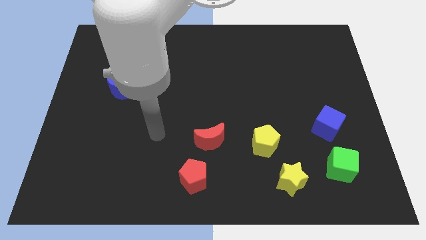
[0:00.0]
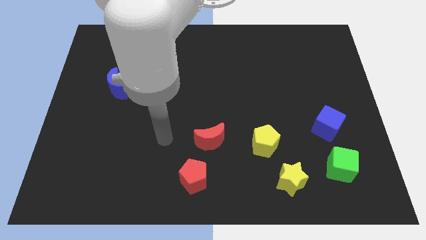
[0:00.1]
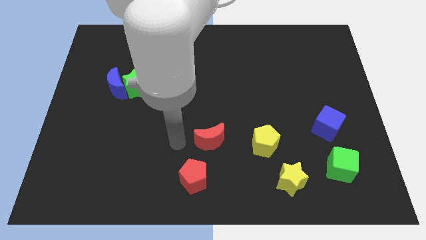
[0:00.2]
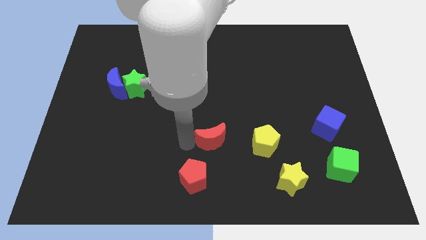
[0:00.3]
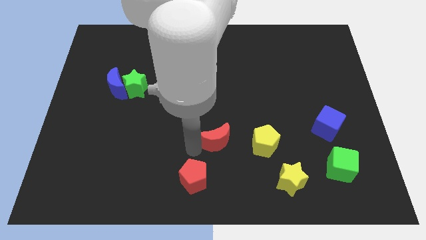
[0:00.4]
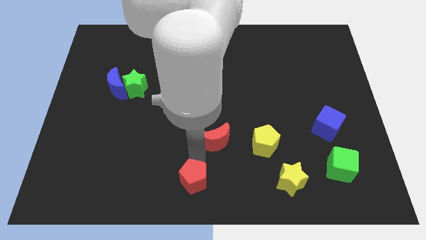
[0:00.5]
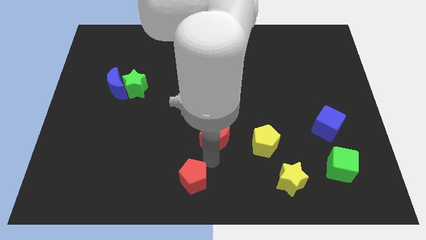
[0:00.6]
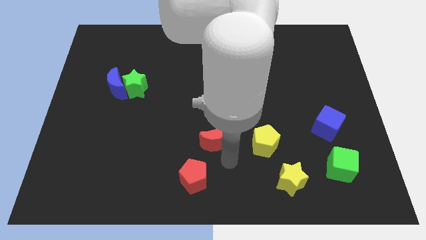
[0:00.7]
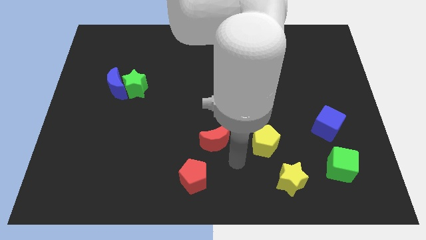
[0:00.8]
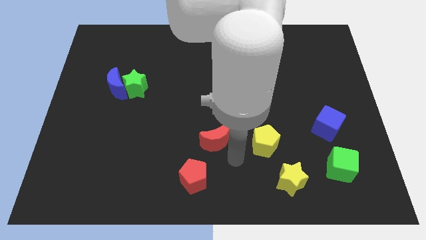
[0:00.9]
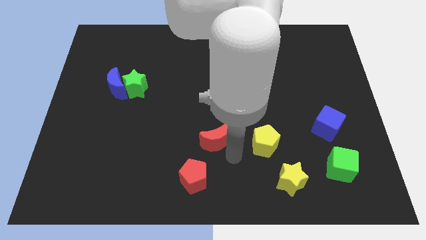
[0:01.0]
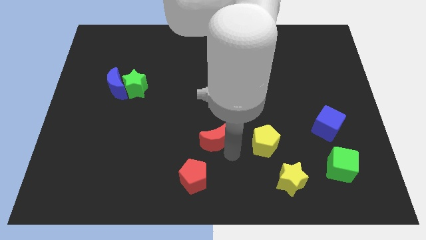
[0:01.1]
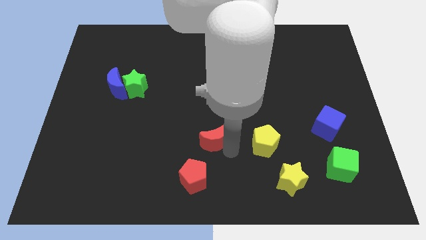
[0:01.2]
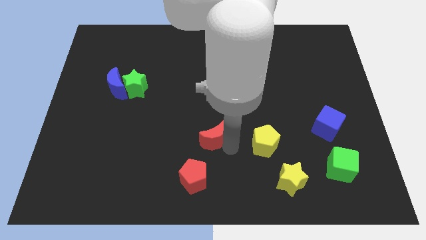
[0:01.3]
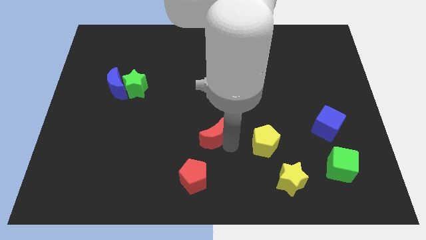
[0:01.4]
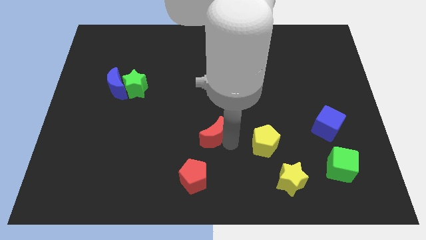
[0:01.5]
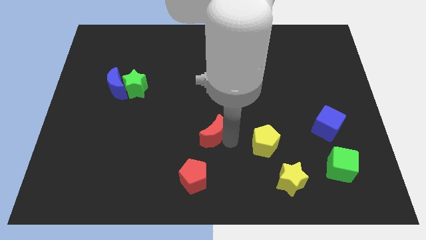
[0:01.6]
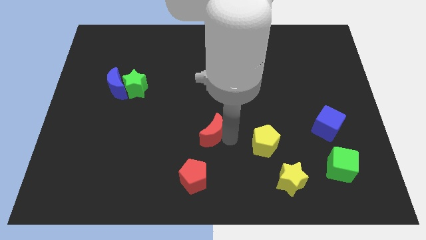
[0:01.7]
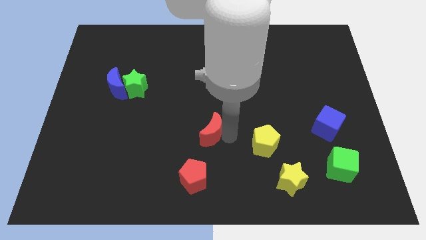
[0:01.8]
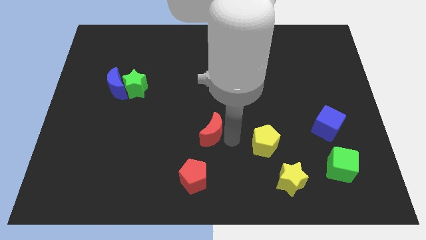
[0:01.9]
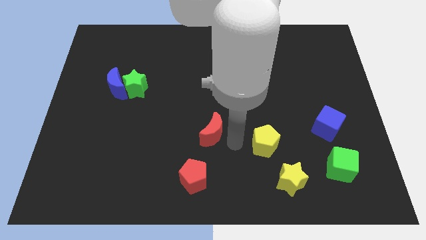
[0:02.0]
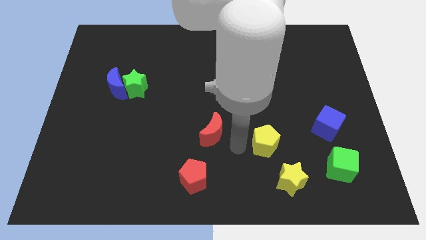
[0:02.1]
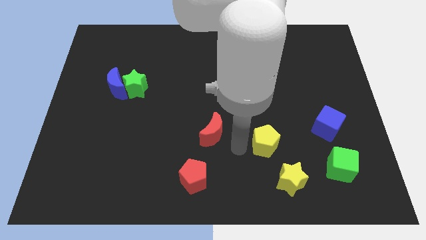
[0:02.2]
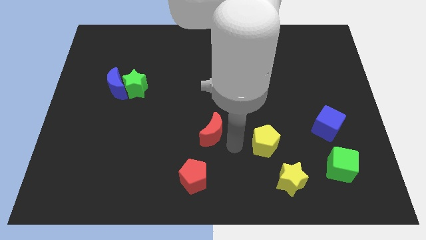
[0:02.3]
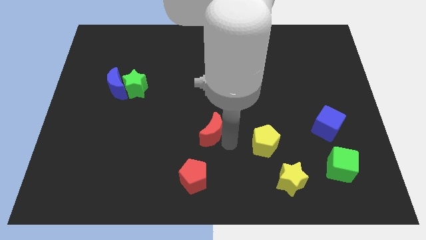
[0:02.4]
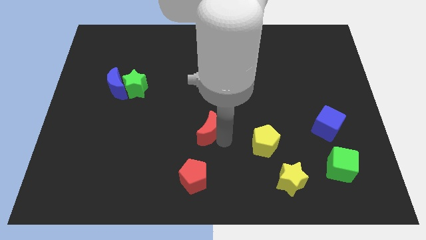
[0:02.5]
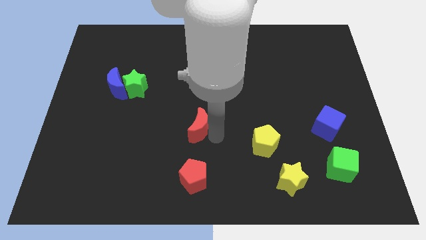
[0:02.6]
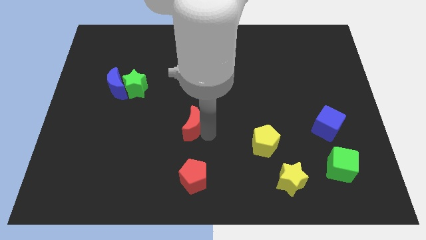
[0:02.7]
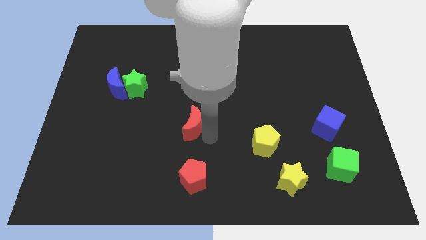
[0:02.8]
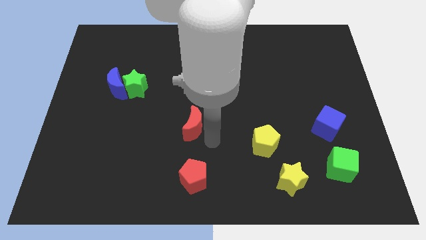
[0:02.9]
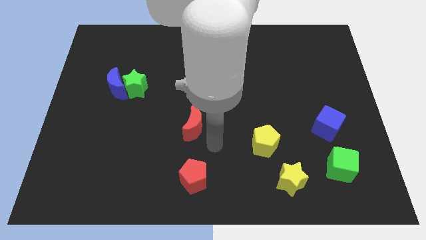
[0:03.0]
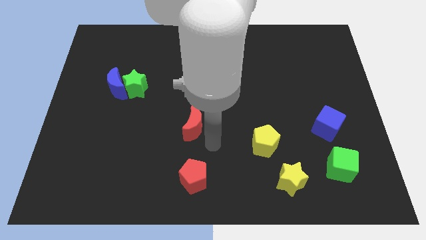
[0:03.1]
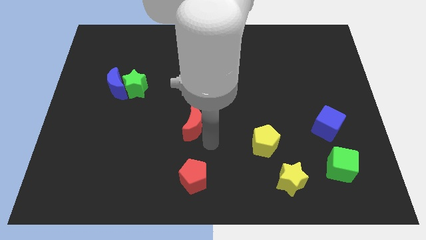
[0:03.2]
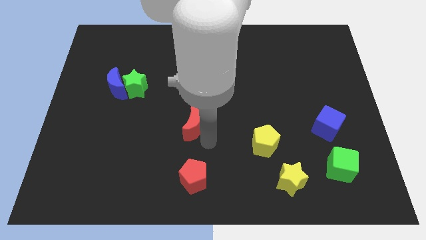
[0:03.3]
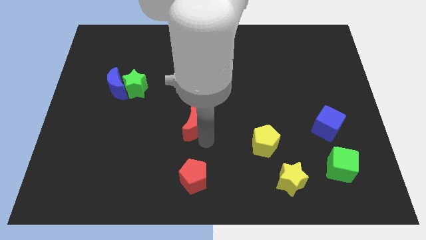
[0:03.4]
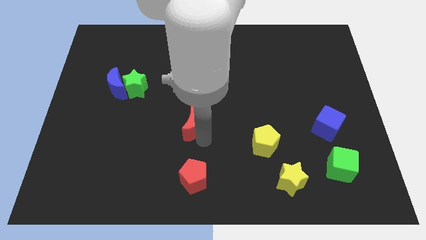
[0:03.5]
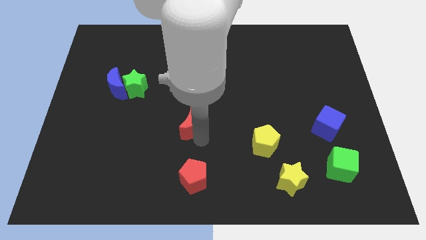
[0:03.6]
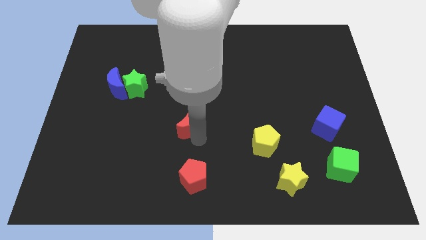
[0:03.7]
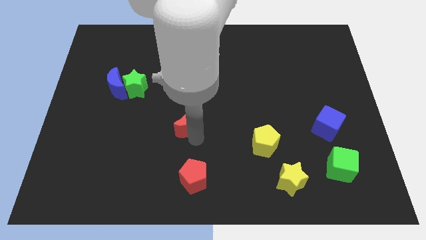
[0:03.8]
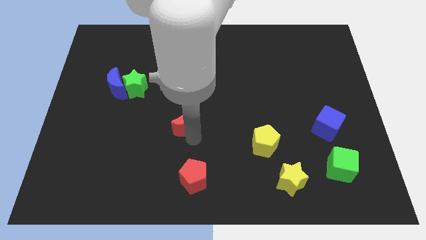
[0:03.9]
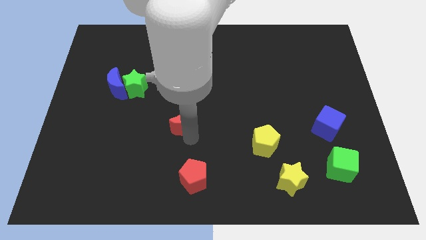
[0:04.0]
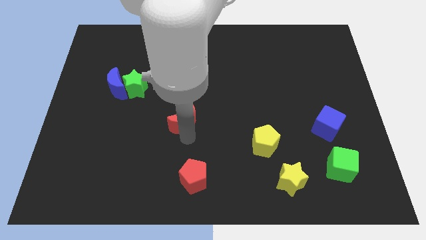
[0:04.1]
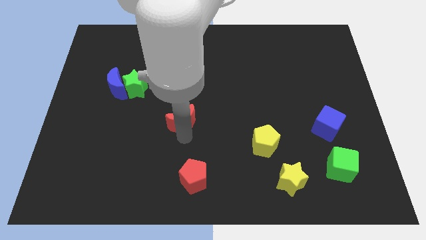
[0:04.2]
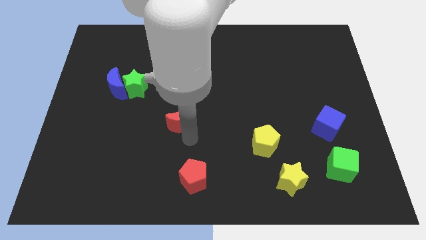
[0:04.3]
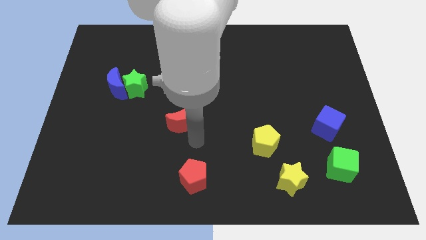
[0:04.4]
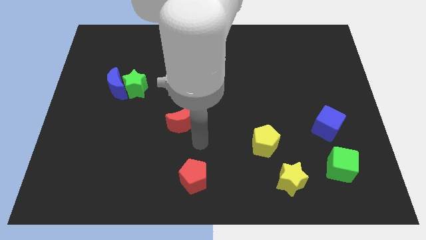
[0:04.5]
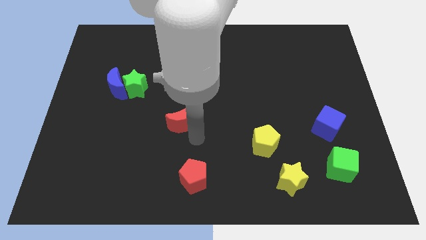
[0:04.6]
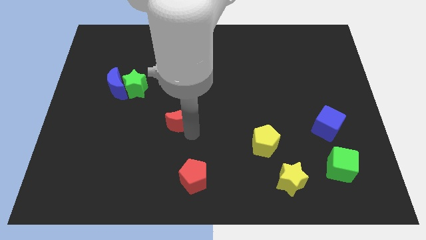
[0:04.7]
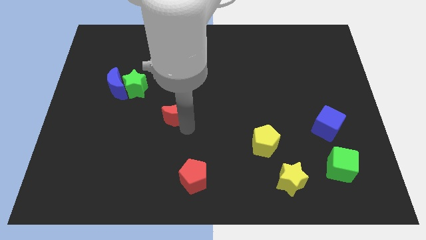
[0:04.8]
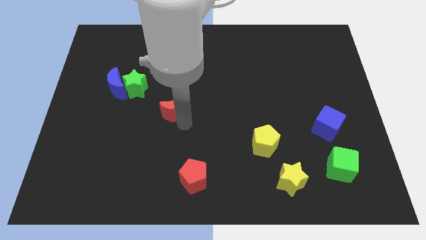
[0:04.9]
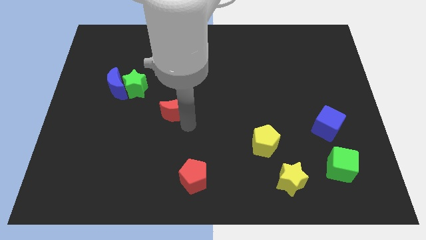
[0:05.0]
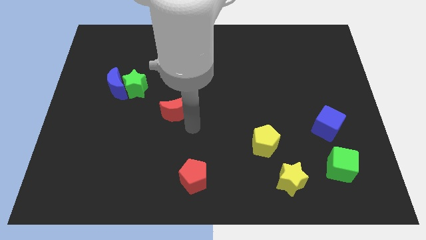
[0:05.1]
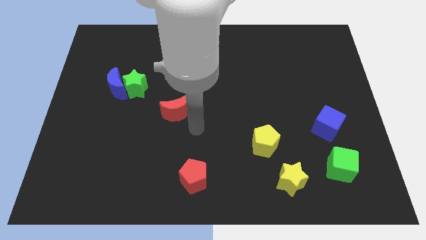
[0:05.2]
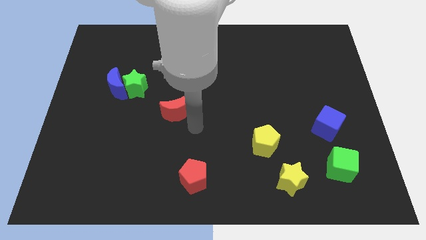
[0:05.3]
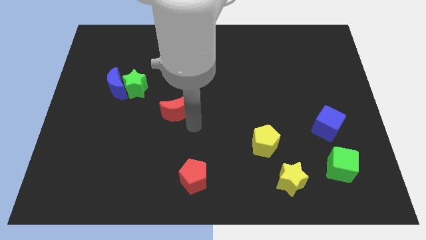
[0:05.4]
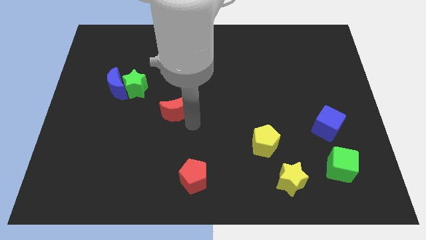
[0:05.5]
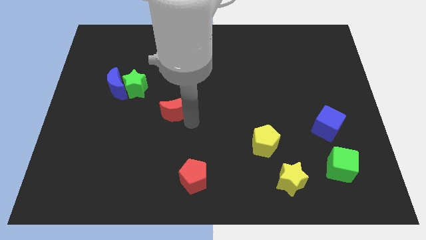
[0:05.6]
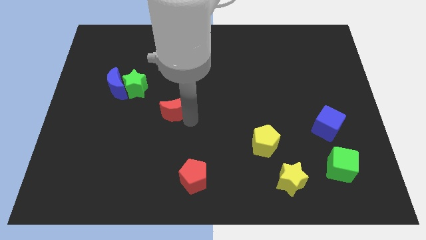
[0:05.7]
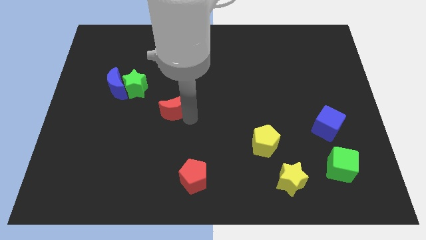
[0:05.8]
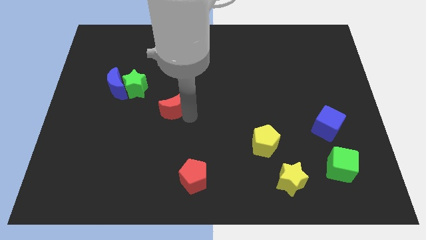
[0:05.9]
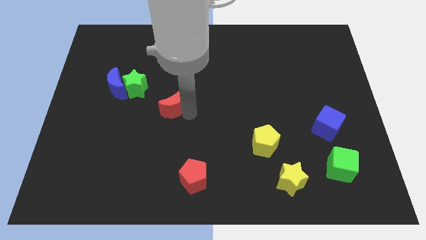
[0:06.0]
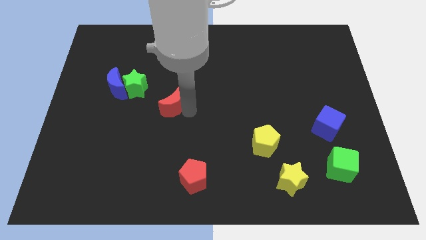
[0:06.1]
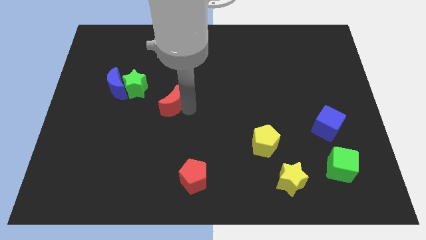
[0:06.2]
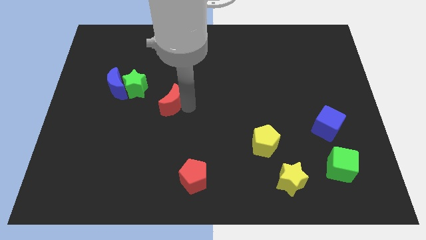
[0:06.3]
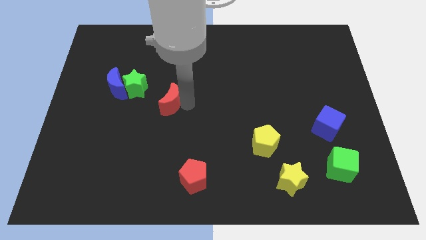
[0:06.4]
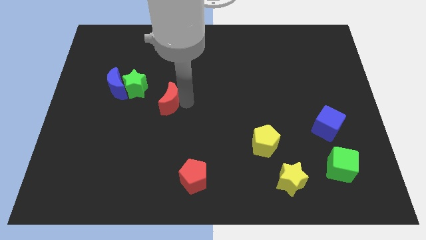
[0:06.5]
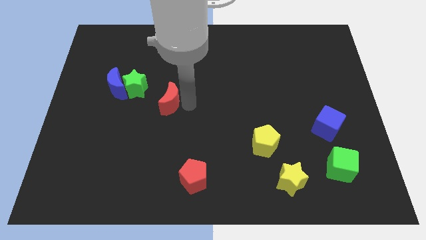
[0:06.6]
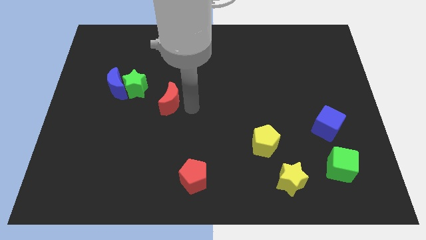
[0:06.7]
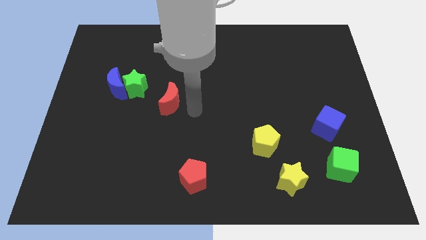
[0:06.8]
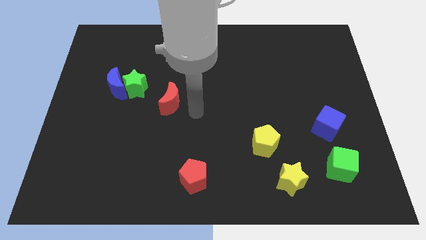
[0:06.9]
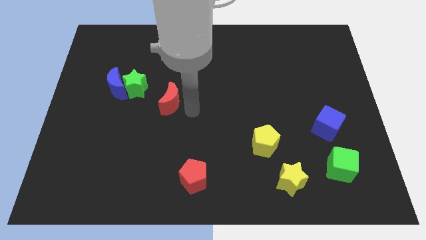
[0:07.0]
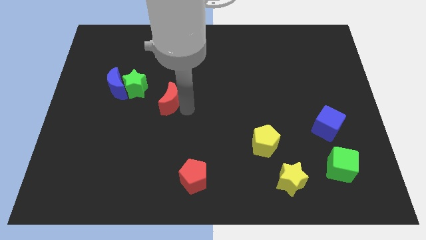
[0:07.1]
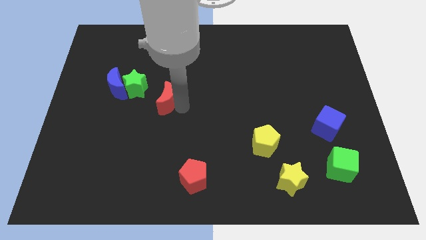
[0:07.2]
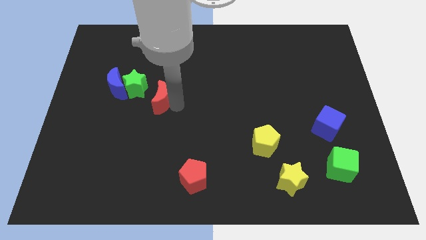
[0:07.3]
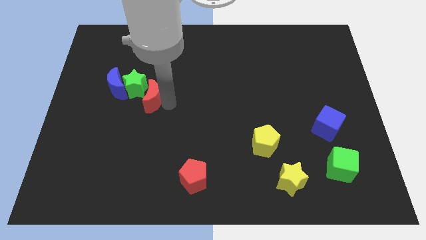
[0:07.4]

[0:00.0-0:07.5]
move the red moon close to the green star
